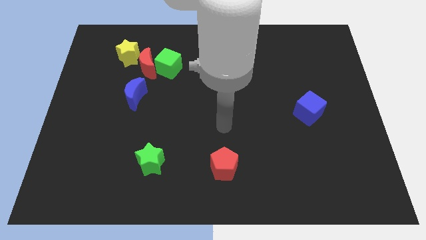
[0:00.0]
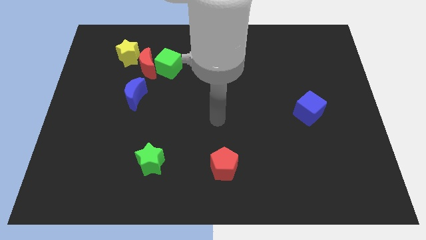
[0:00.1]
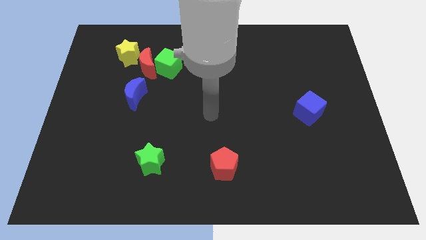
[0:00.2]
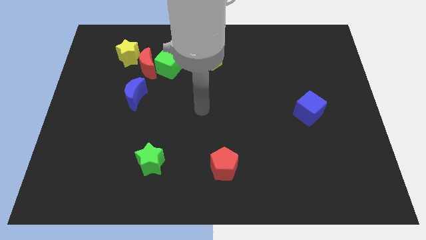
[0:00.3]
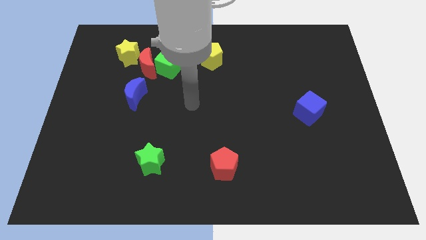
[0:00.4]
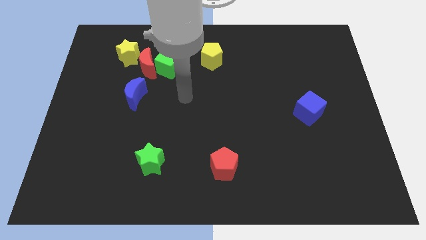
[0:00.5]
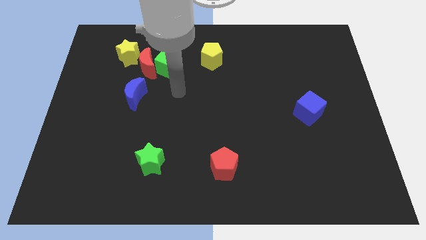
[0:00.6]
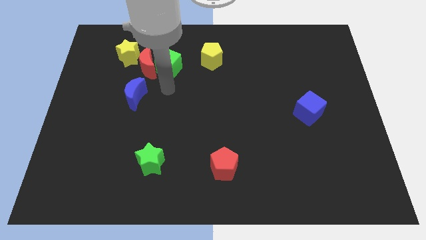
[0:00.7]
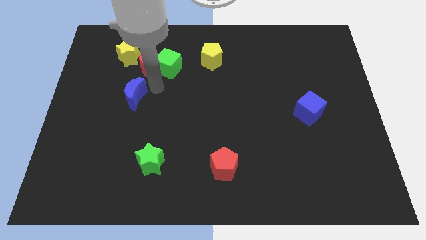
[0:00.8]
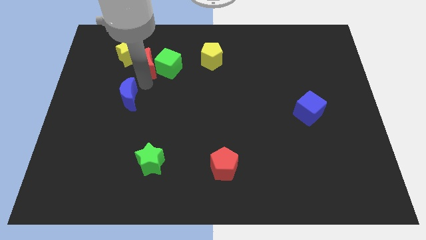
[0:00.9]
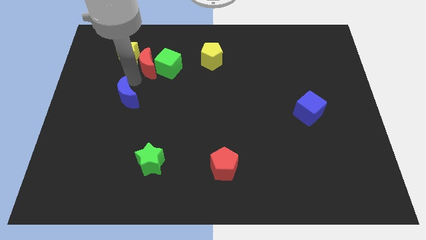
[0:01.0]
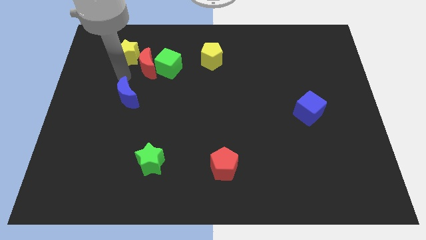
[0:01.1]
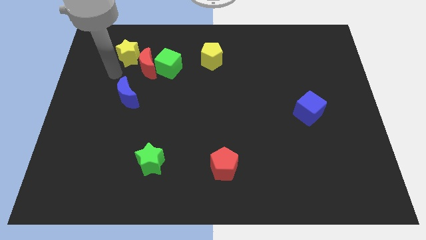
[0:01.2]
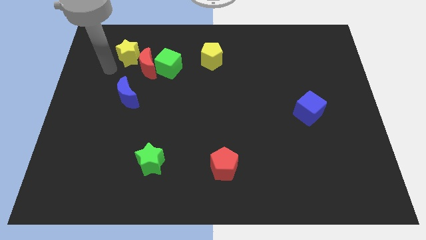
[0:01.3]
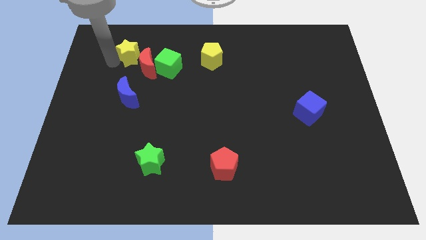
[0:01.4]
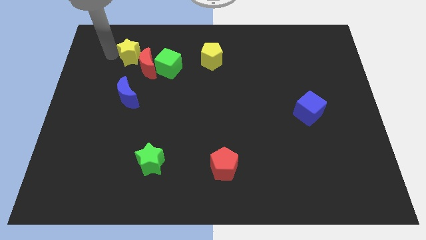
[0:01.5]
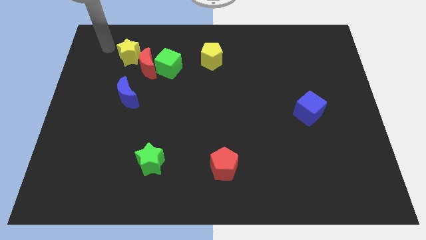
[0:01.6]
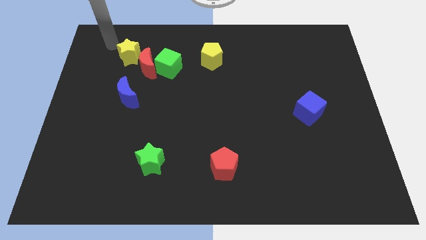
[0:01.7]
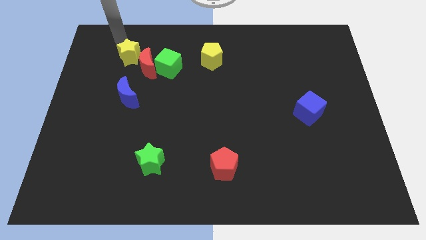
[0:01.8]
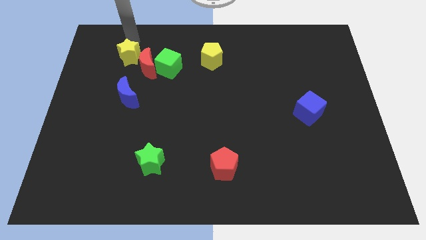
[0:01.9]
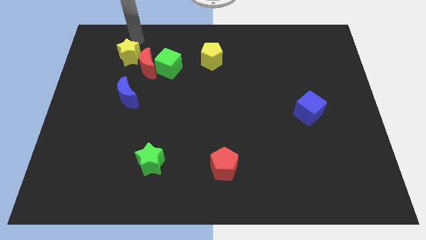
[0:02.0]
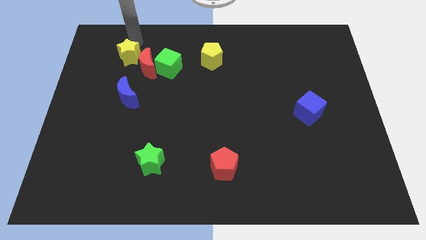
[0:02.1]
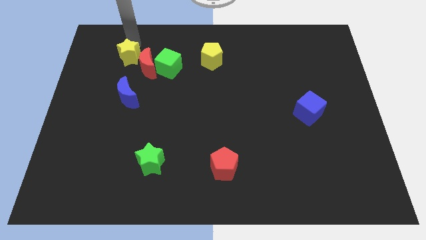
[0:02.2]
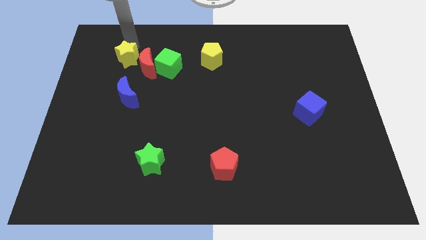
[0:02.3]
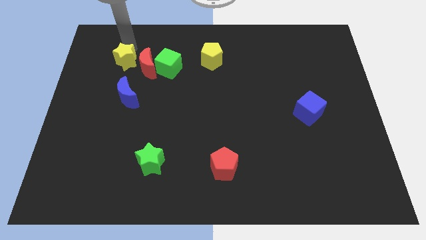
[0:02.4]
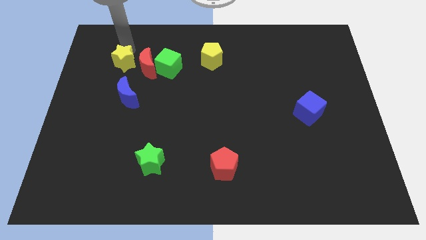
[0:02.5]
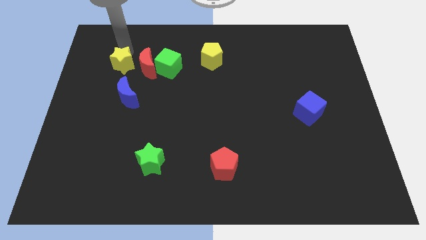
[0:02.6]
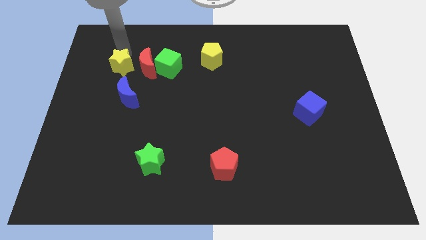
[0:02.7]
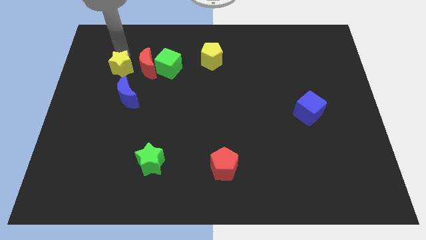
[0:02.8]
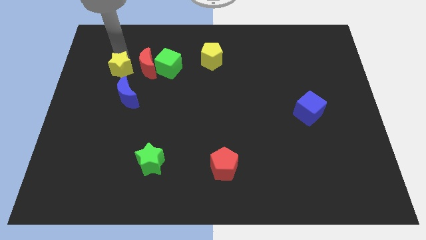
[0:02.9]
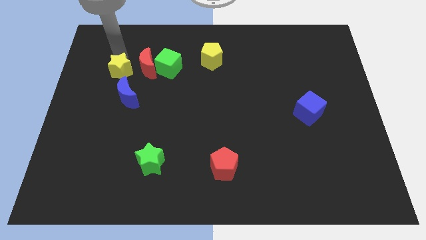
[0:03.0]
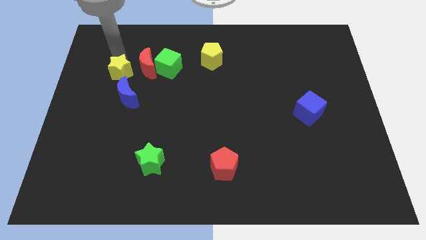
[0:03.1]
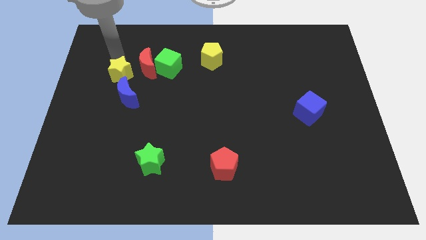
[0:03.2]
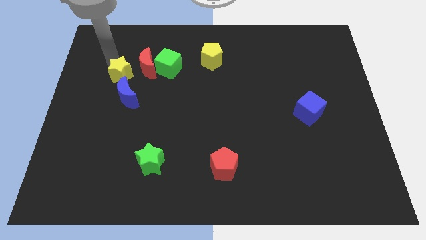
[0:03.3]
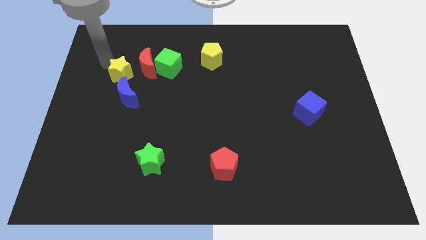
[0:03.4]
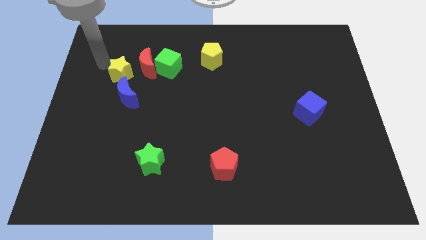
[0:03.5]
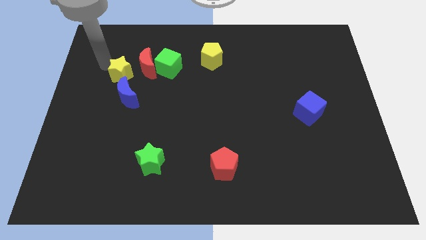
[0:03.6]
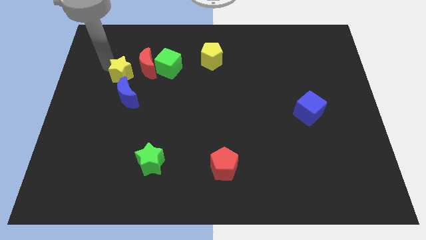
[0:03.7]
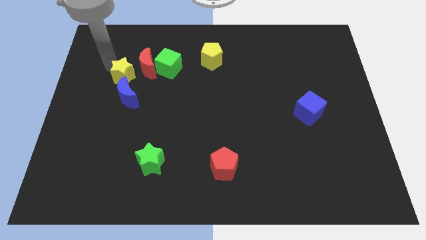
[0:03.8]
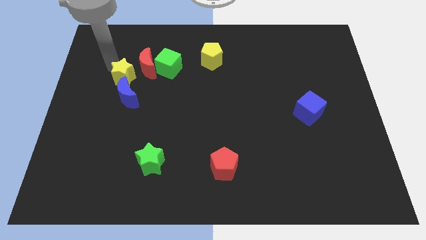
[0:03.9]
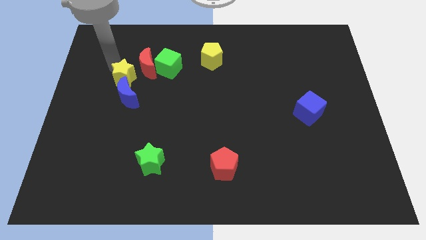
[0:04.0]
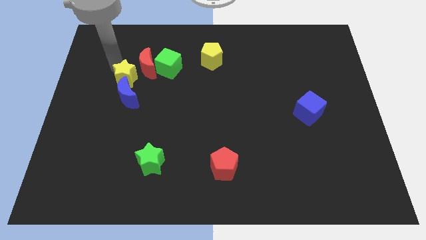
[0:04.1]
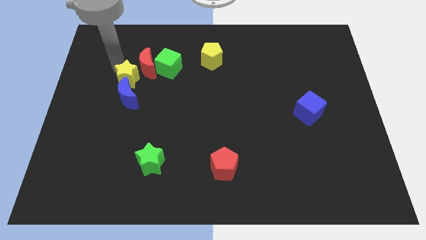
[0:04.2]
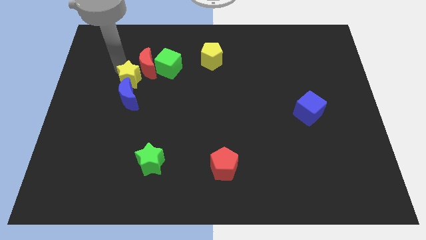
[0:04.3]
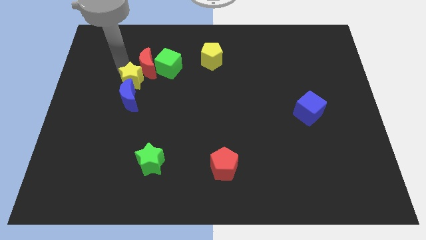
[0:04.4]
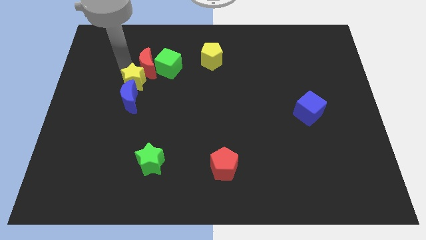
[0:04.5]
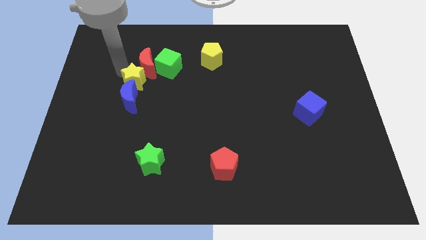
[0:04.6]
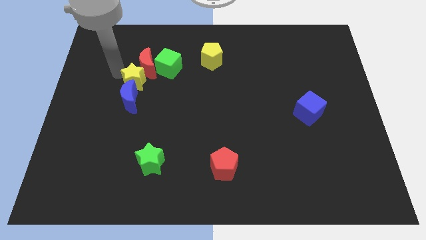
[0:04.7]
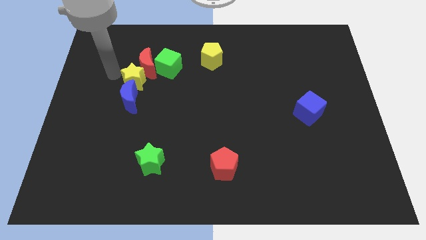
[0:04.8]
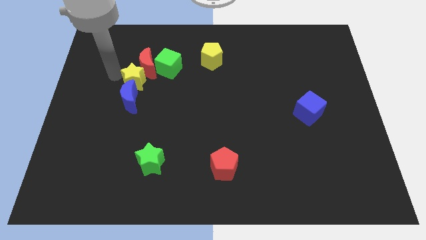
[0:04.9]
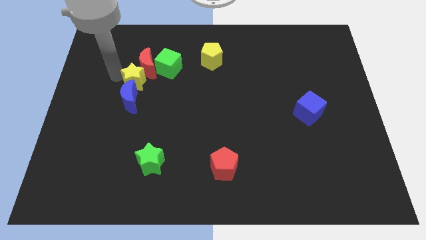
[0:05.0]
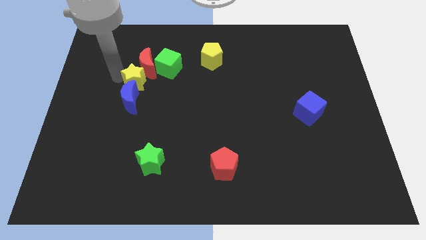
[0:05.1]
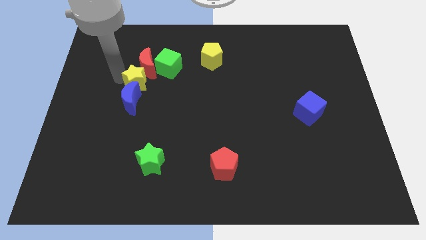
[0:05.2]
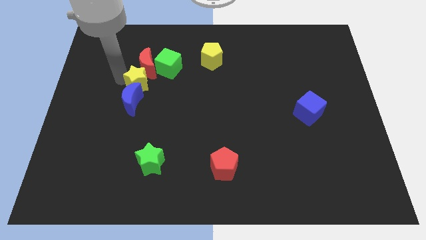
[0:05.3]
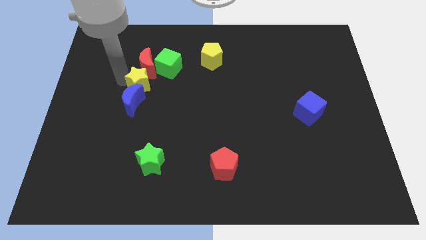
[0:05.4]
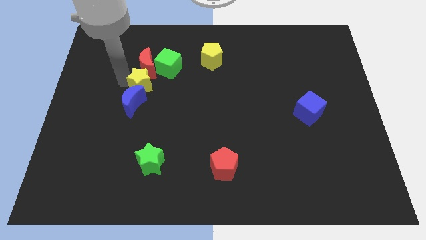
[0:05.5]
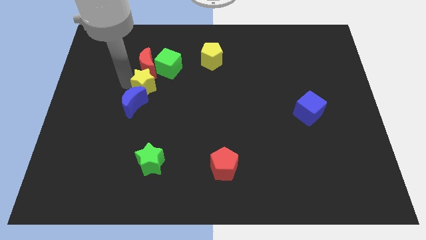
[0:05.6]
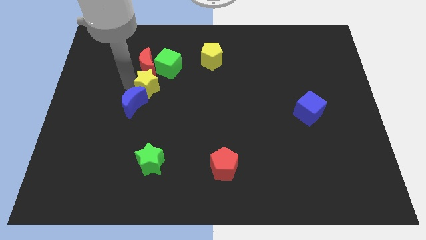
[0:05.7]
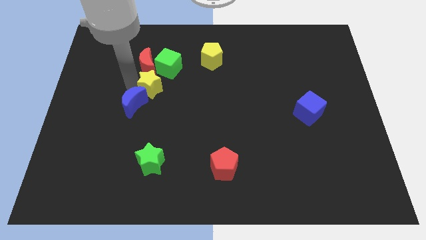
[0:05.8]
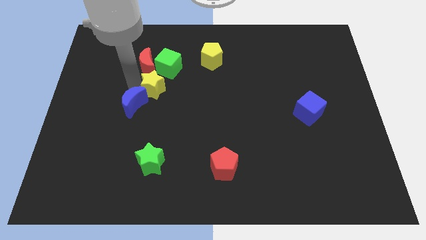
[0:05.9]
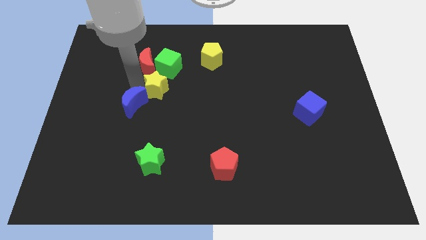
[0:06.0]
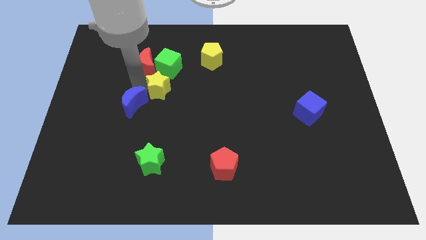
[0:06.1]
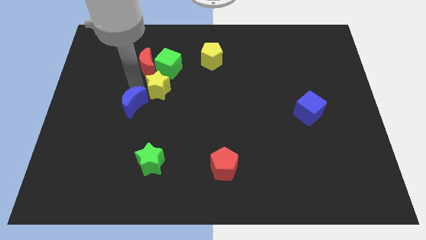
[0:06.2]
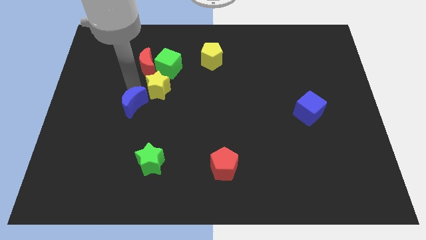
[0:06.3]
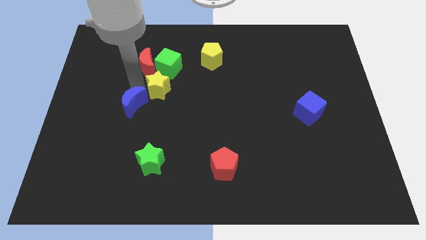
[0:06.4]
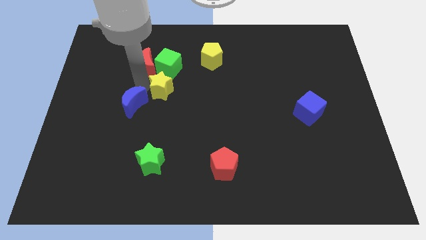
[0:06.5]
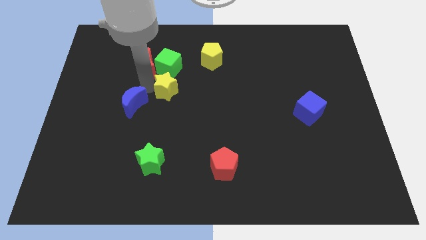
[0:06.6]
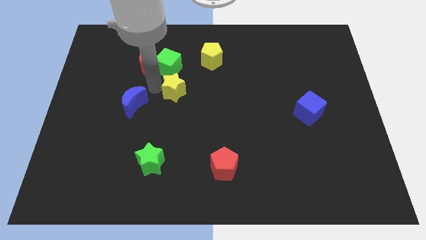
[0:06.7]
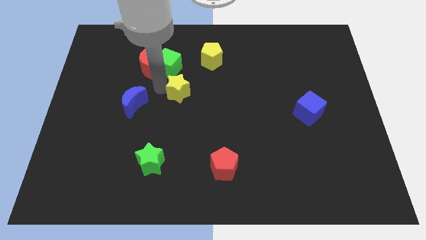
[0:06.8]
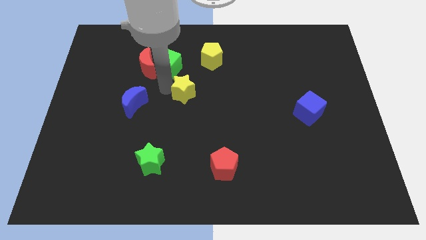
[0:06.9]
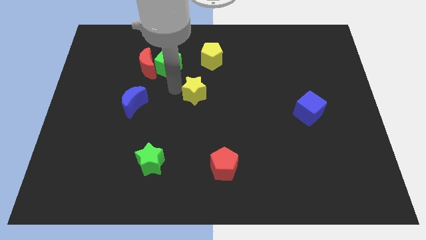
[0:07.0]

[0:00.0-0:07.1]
push the yellow star down and to the right diagonally

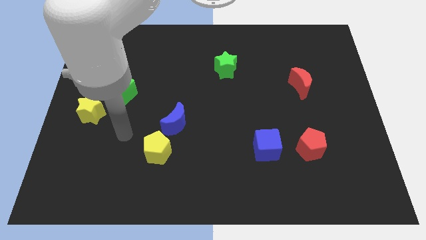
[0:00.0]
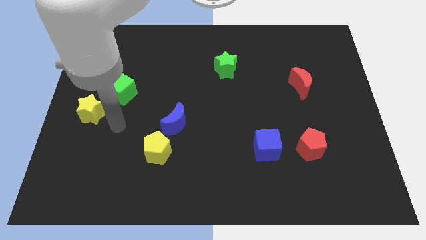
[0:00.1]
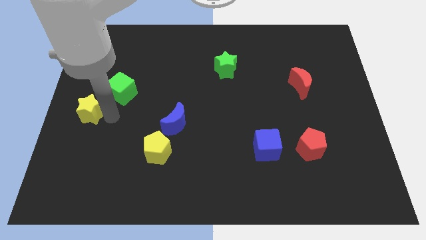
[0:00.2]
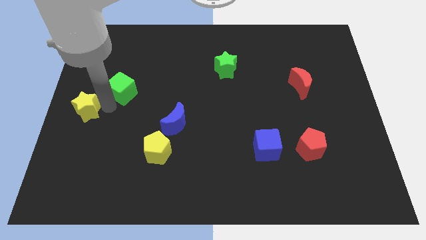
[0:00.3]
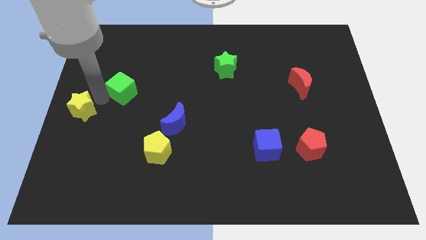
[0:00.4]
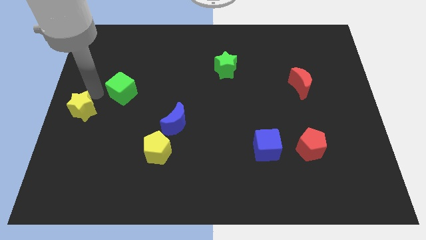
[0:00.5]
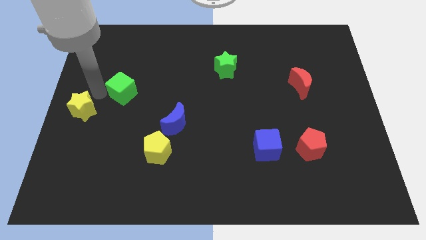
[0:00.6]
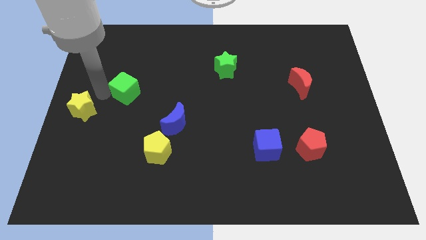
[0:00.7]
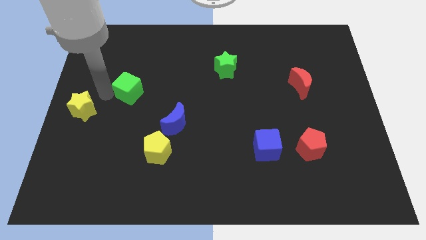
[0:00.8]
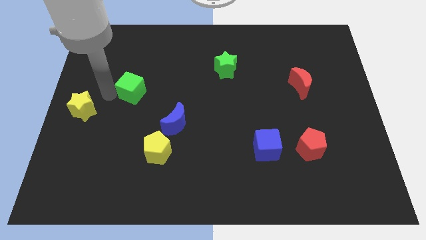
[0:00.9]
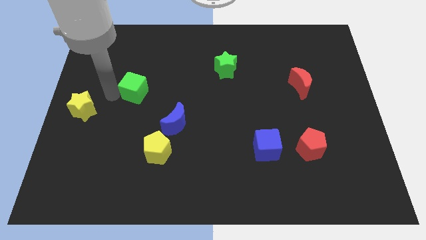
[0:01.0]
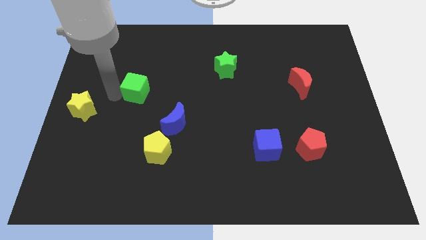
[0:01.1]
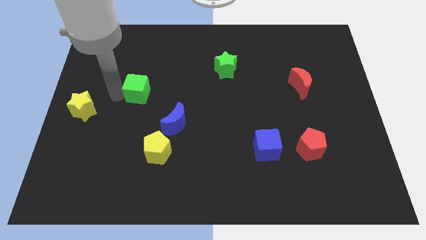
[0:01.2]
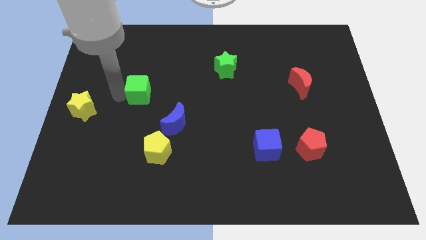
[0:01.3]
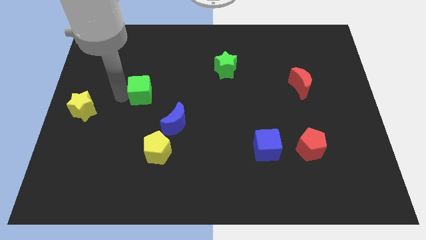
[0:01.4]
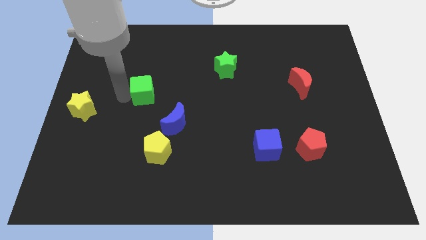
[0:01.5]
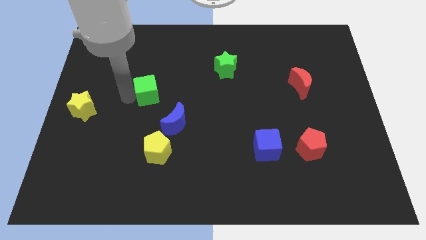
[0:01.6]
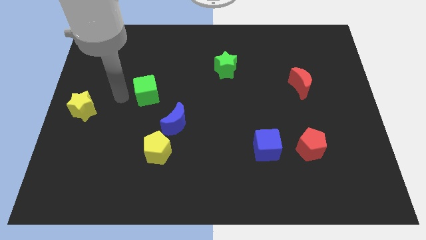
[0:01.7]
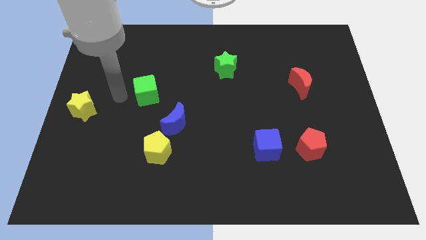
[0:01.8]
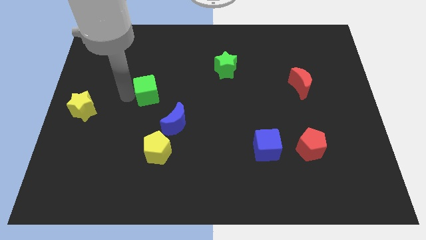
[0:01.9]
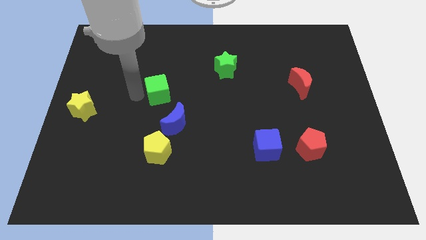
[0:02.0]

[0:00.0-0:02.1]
slide the green cube right somewhat
